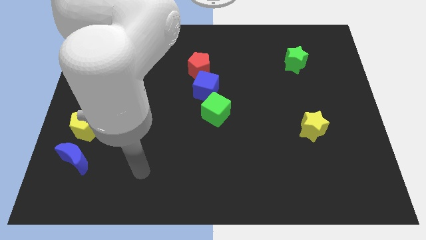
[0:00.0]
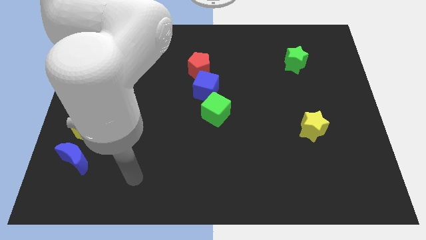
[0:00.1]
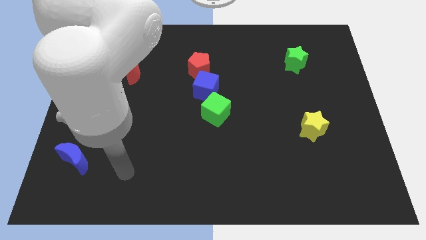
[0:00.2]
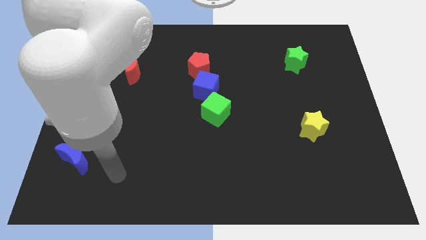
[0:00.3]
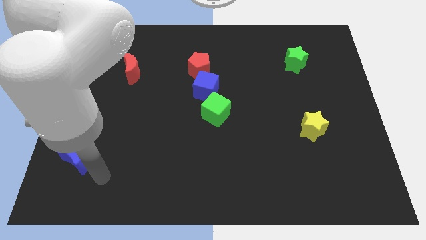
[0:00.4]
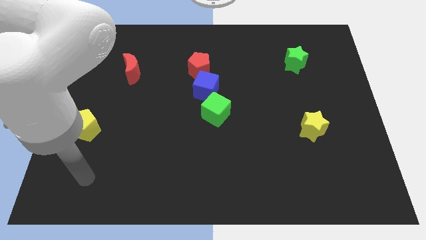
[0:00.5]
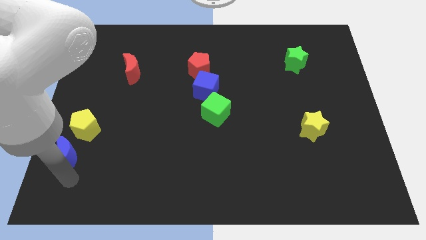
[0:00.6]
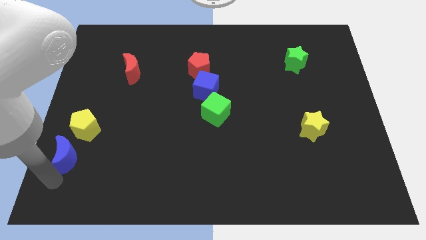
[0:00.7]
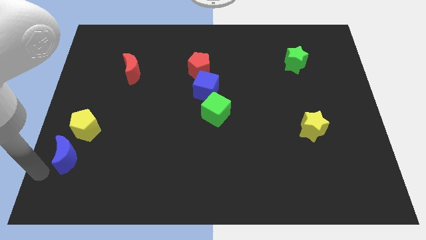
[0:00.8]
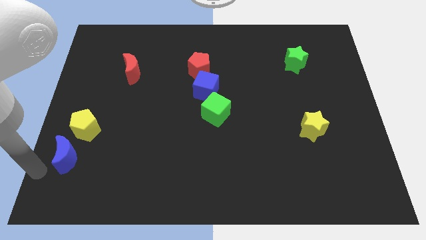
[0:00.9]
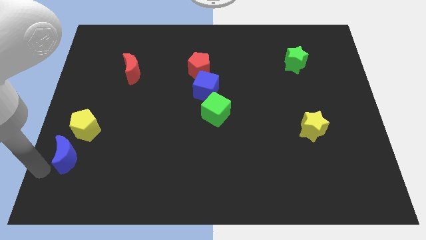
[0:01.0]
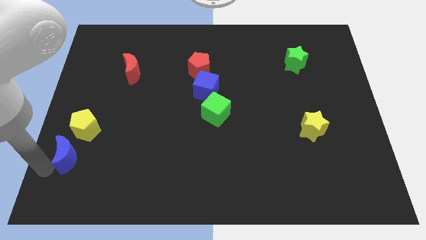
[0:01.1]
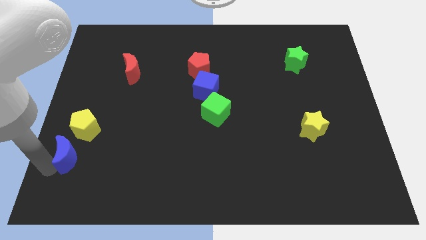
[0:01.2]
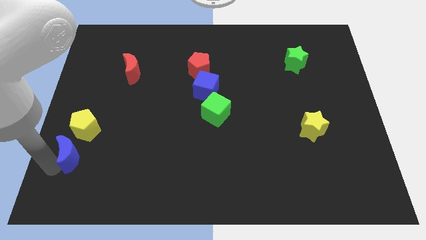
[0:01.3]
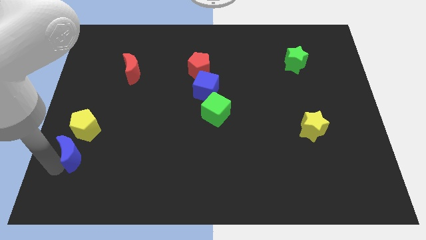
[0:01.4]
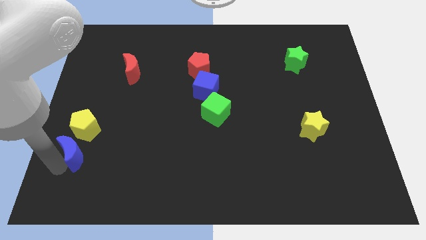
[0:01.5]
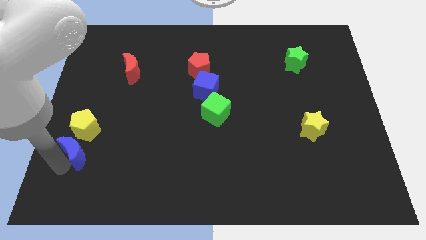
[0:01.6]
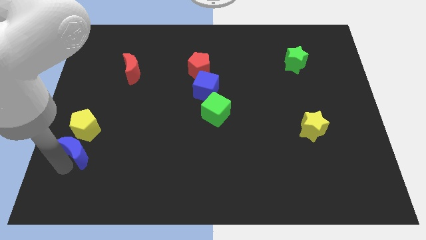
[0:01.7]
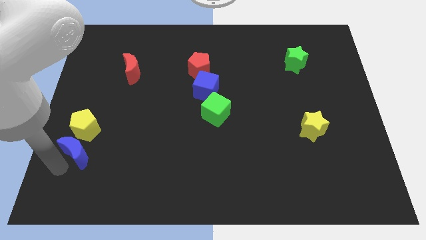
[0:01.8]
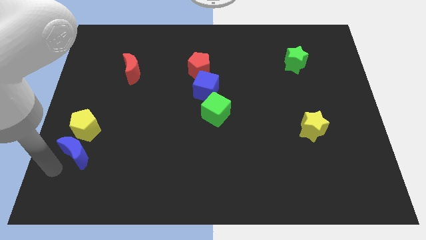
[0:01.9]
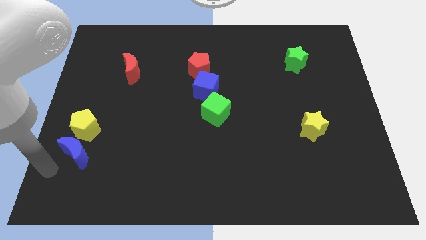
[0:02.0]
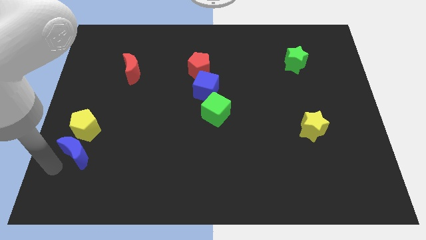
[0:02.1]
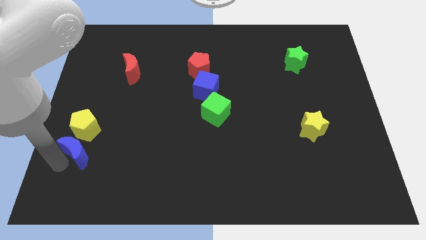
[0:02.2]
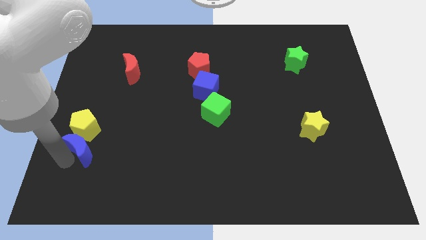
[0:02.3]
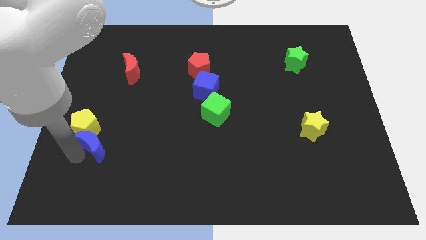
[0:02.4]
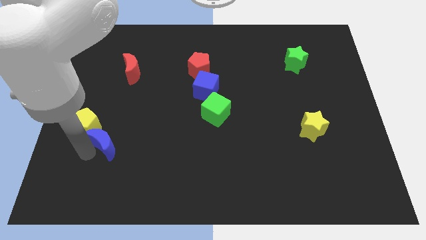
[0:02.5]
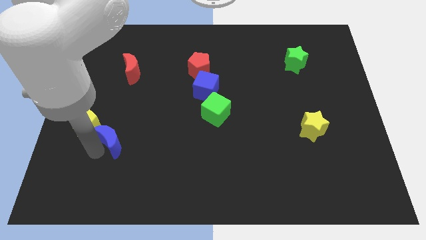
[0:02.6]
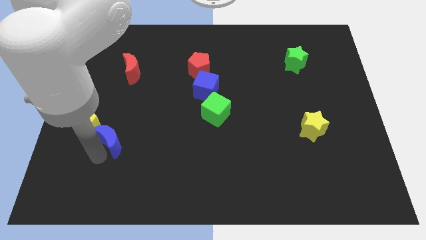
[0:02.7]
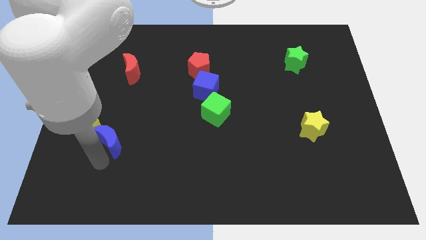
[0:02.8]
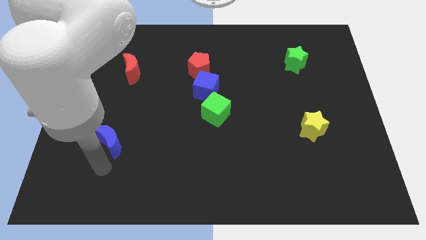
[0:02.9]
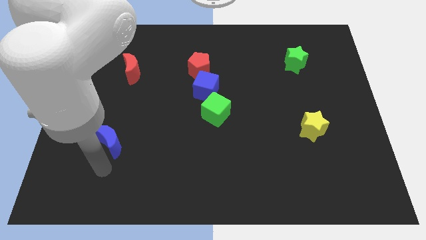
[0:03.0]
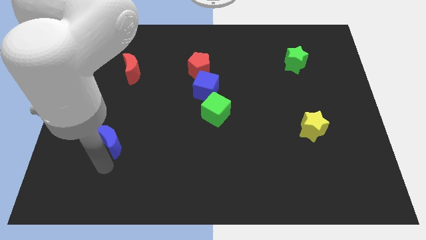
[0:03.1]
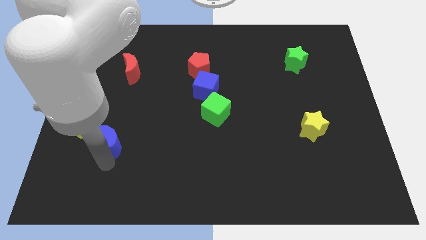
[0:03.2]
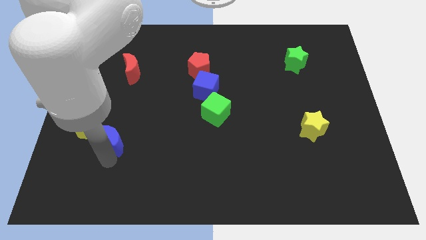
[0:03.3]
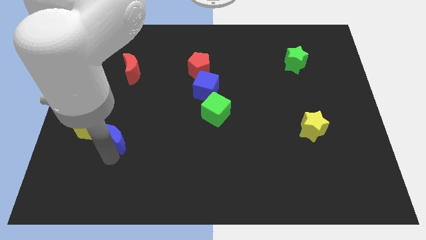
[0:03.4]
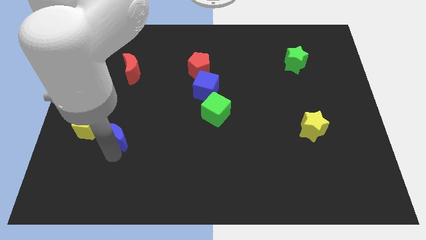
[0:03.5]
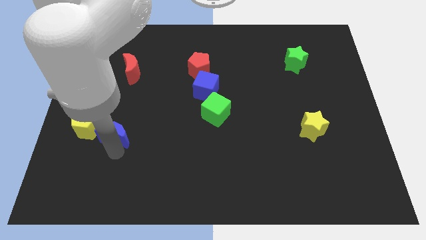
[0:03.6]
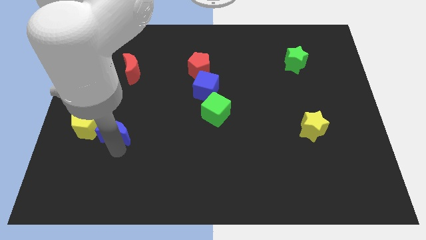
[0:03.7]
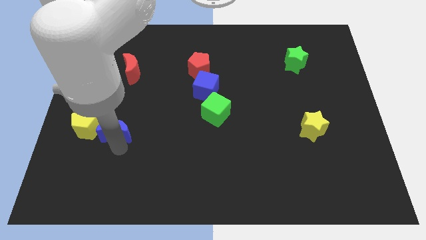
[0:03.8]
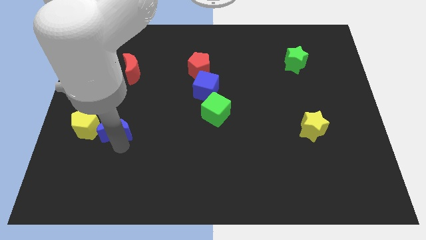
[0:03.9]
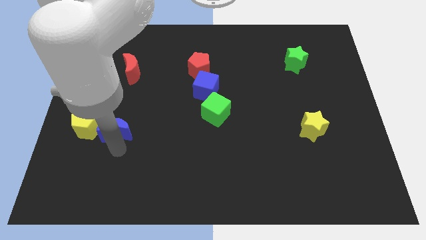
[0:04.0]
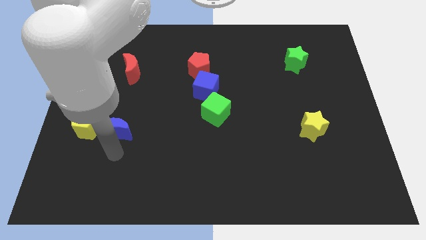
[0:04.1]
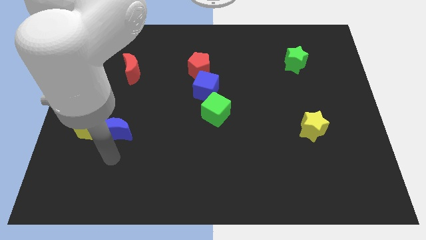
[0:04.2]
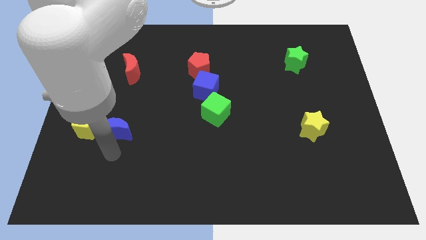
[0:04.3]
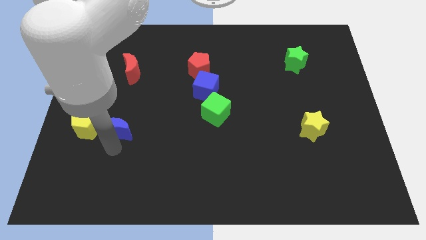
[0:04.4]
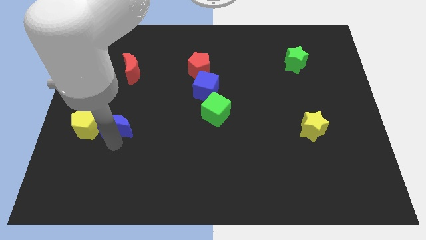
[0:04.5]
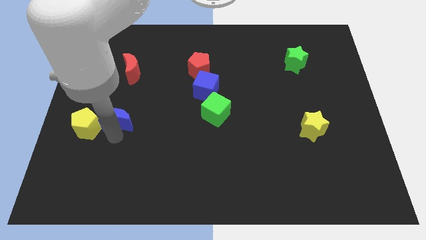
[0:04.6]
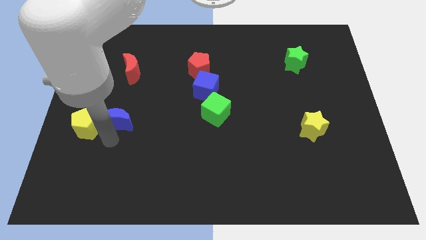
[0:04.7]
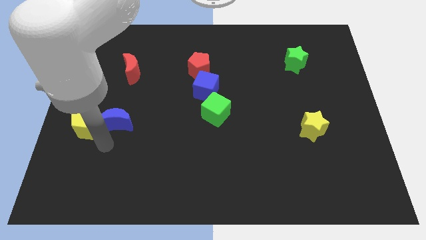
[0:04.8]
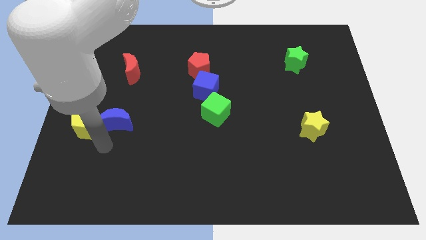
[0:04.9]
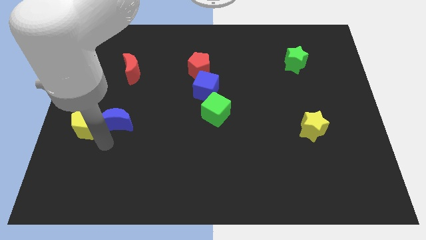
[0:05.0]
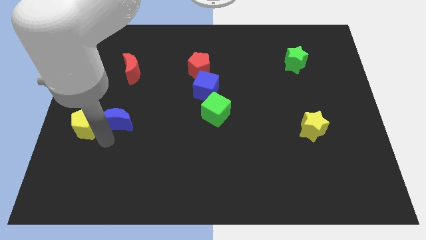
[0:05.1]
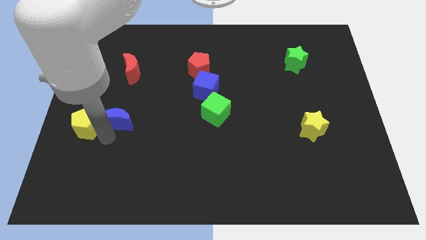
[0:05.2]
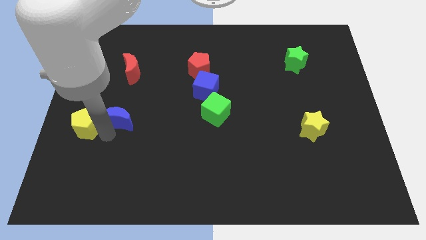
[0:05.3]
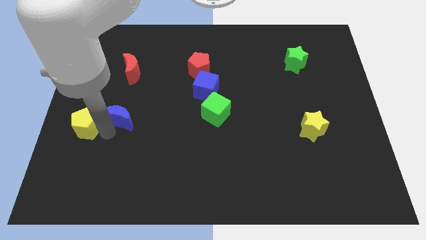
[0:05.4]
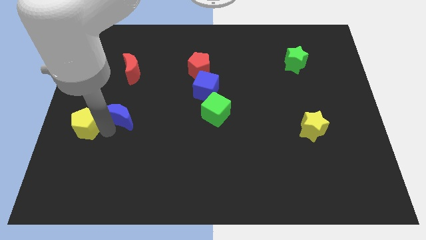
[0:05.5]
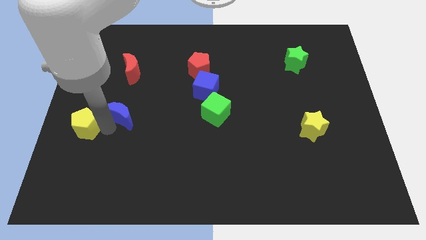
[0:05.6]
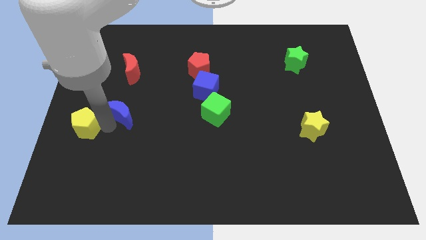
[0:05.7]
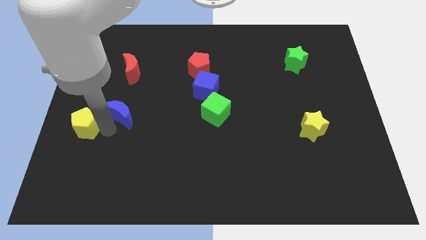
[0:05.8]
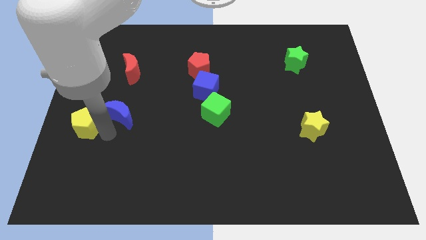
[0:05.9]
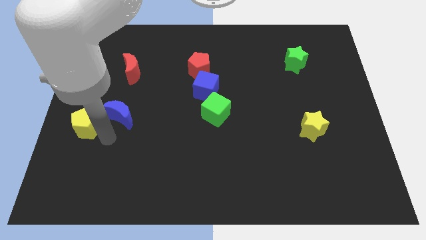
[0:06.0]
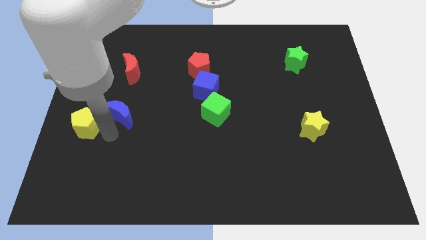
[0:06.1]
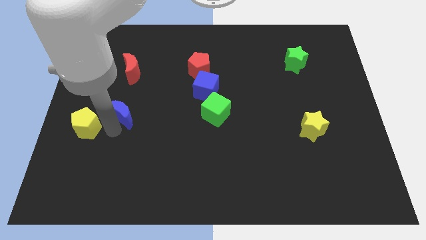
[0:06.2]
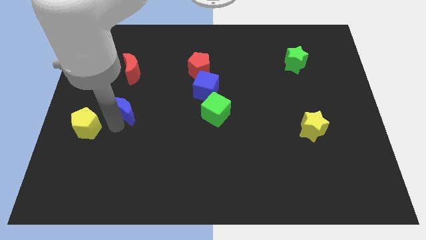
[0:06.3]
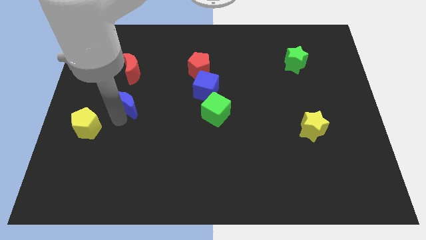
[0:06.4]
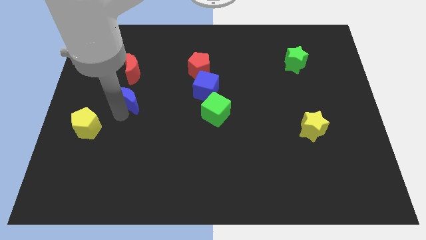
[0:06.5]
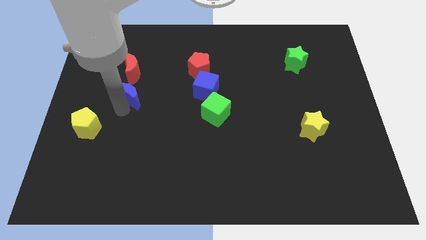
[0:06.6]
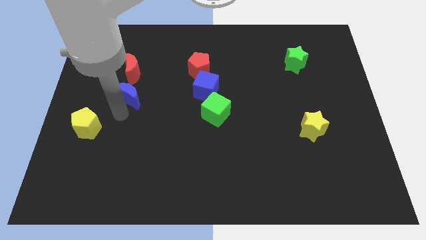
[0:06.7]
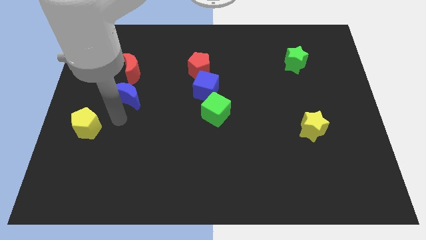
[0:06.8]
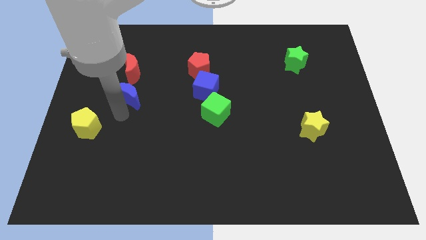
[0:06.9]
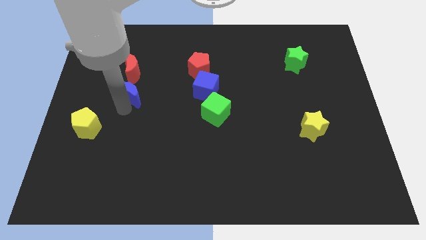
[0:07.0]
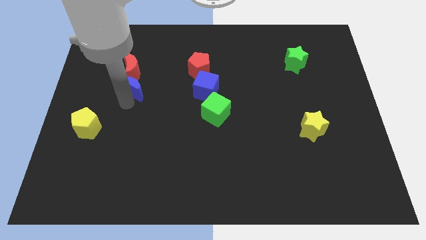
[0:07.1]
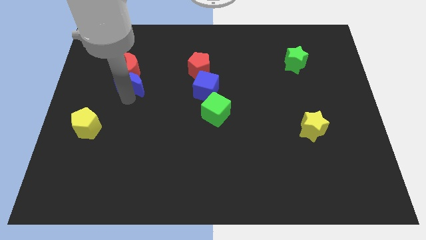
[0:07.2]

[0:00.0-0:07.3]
move the blue moon towards the red moon
